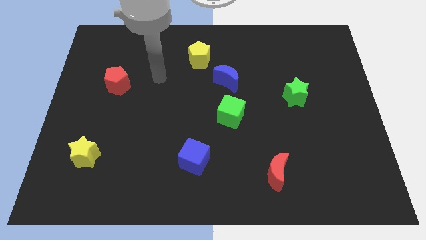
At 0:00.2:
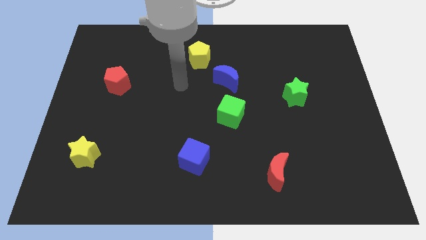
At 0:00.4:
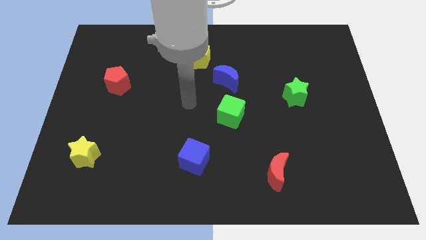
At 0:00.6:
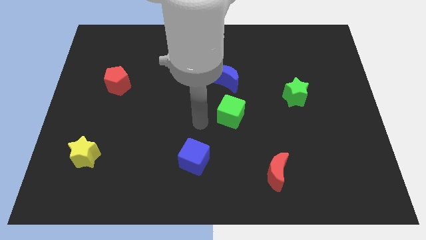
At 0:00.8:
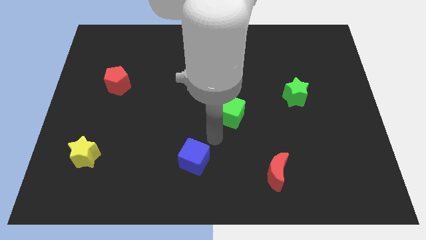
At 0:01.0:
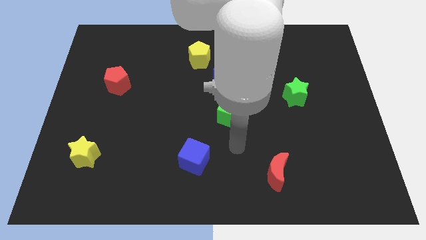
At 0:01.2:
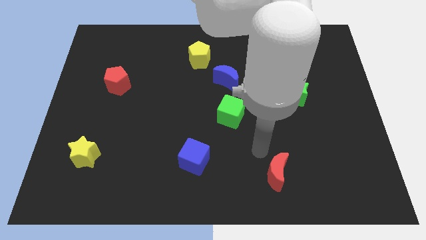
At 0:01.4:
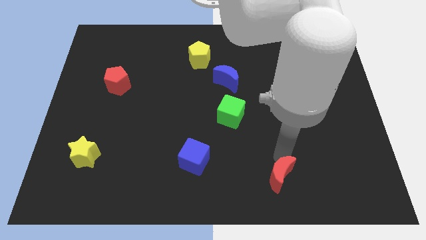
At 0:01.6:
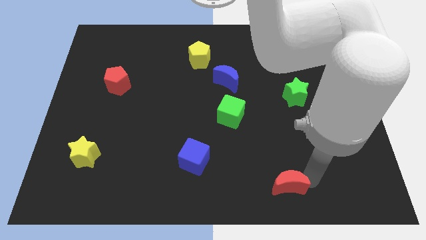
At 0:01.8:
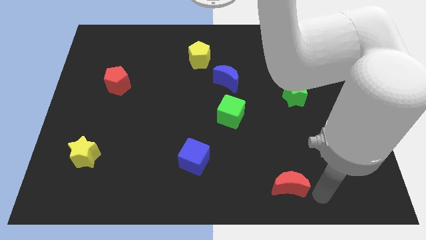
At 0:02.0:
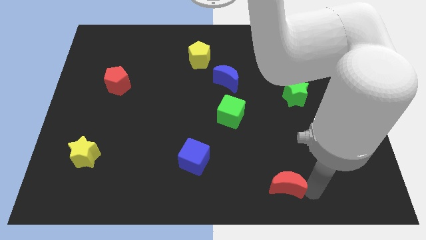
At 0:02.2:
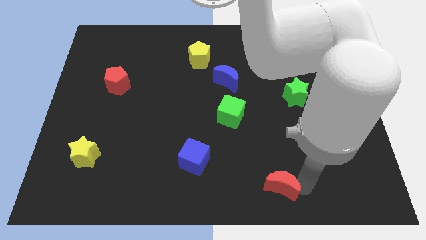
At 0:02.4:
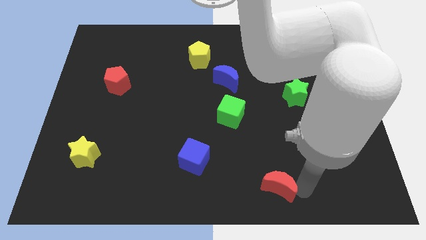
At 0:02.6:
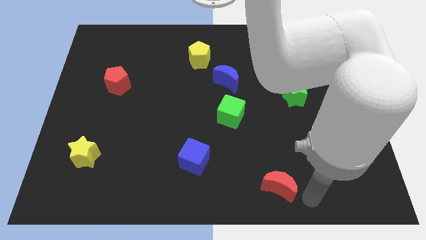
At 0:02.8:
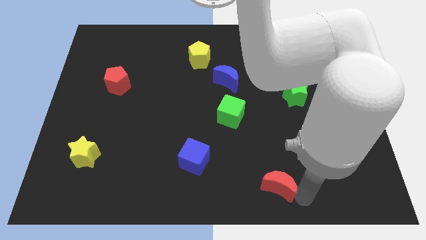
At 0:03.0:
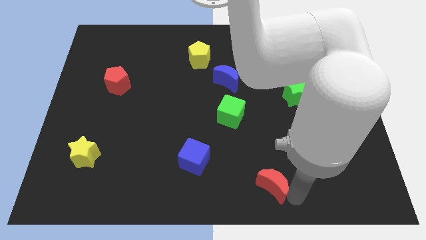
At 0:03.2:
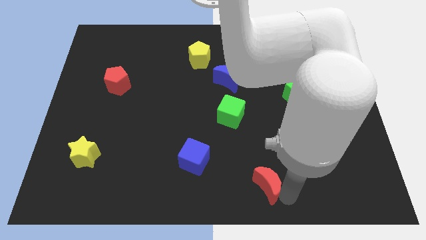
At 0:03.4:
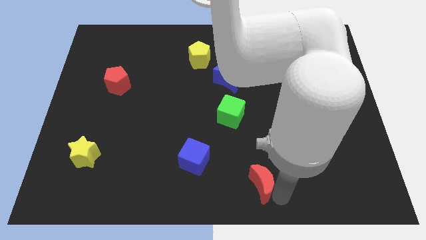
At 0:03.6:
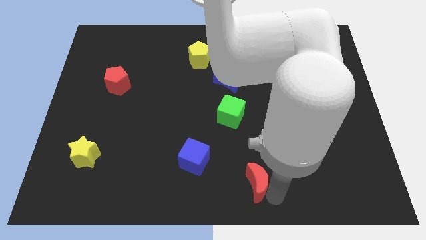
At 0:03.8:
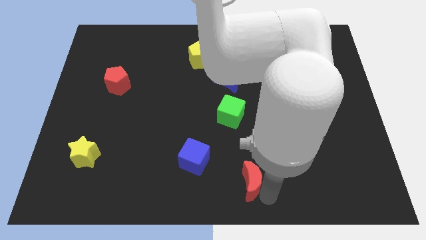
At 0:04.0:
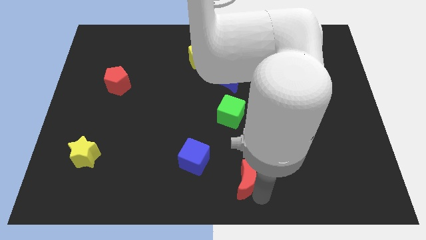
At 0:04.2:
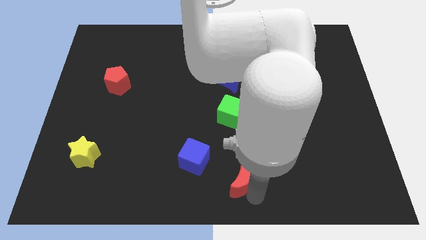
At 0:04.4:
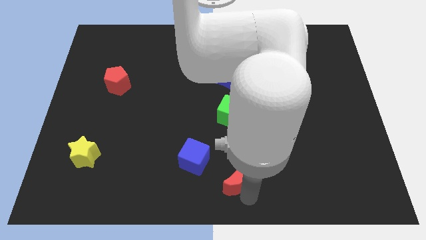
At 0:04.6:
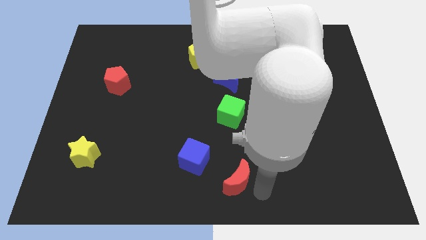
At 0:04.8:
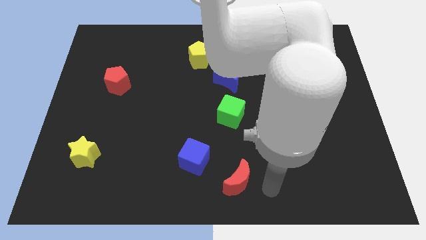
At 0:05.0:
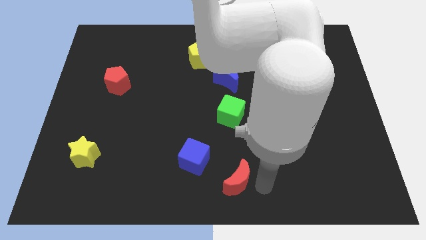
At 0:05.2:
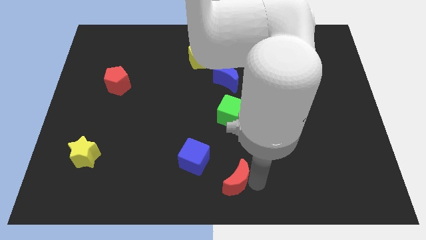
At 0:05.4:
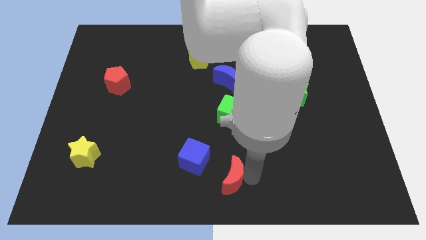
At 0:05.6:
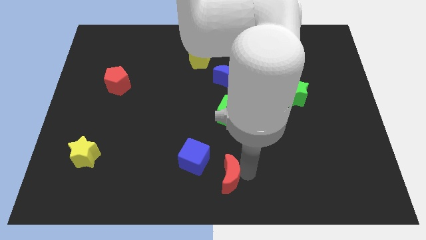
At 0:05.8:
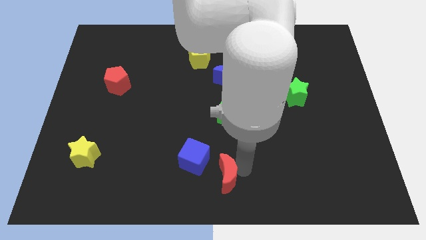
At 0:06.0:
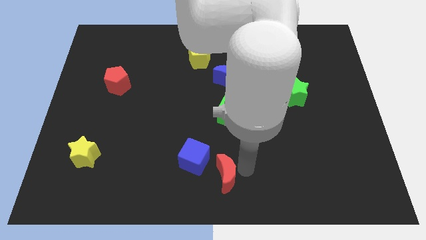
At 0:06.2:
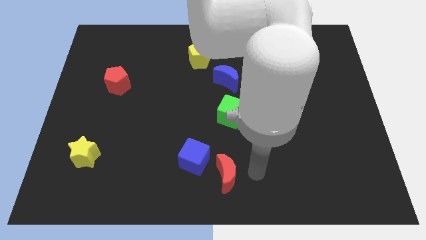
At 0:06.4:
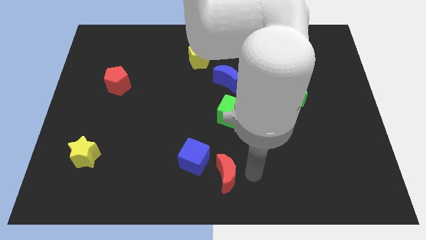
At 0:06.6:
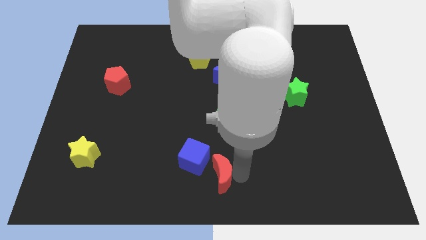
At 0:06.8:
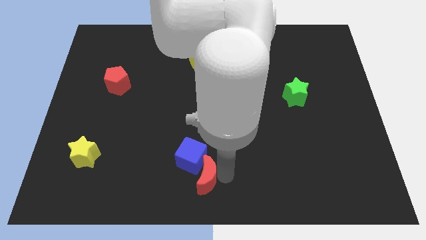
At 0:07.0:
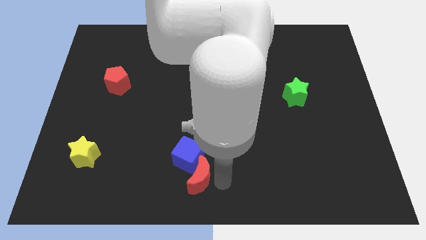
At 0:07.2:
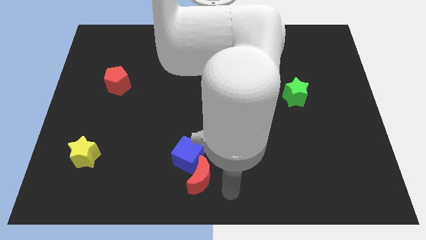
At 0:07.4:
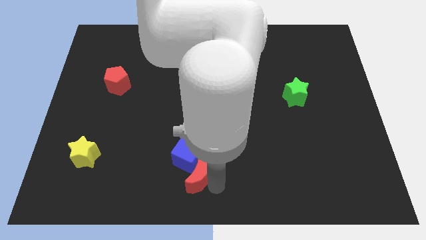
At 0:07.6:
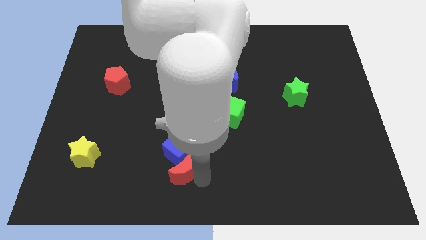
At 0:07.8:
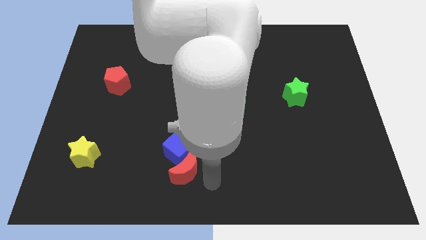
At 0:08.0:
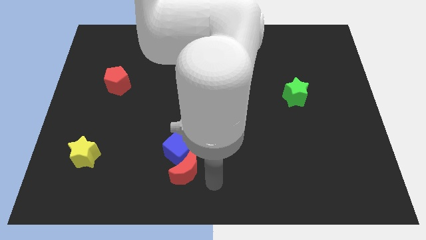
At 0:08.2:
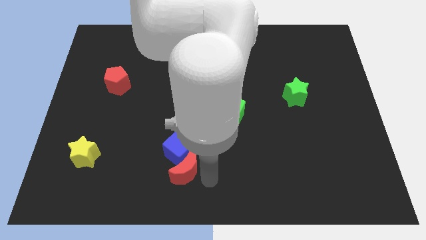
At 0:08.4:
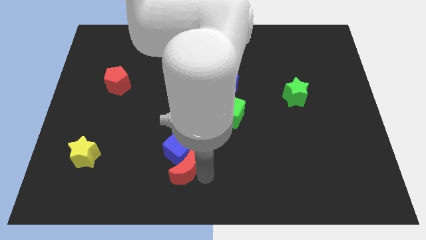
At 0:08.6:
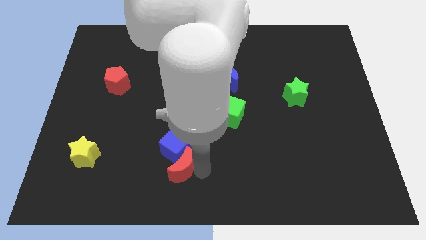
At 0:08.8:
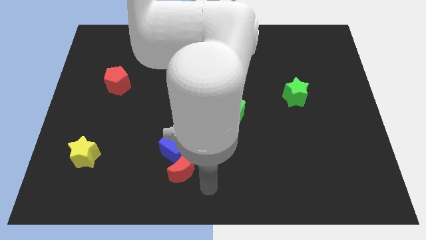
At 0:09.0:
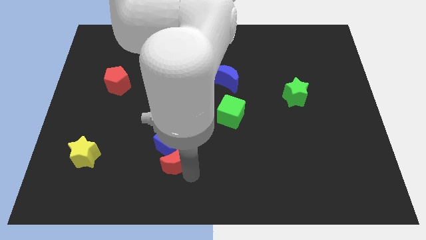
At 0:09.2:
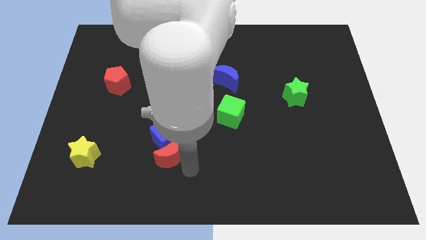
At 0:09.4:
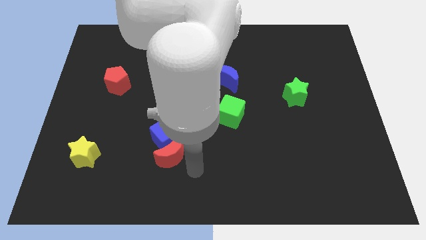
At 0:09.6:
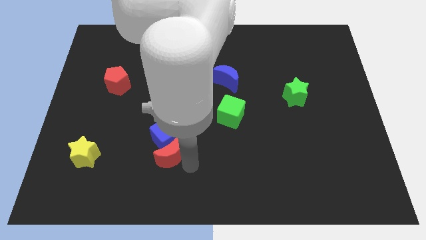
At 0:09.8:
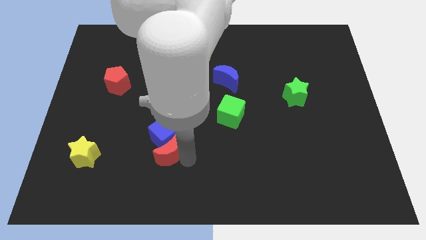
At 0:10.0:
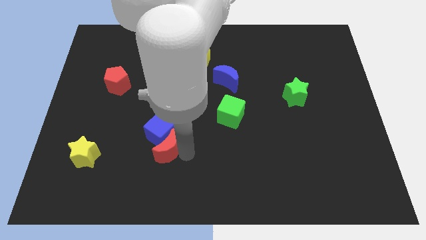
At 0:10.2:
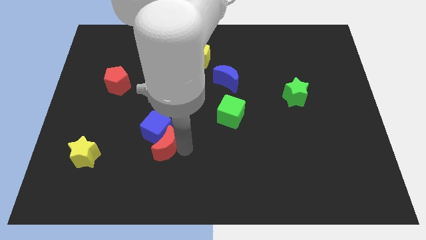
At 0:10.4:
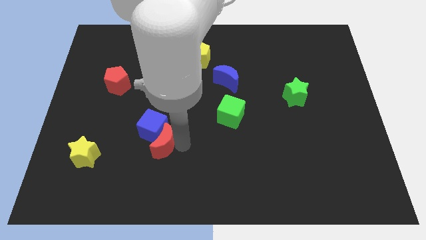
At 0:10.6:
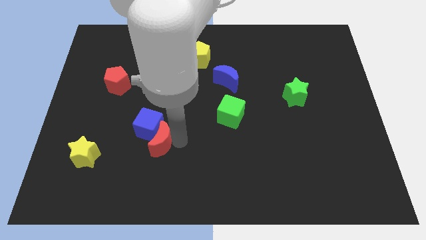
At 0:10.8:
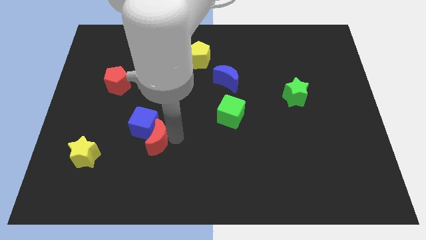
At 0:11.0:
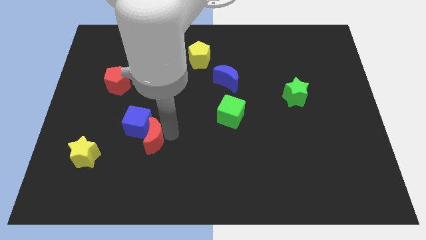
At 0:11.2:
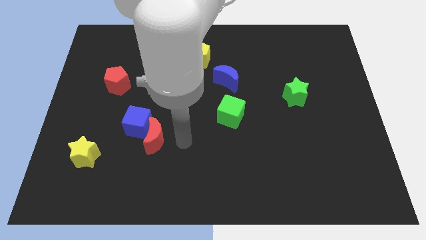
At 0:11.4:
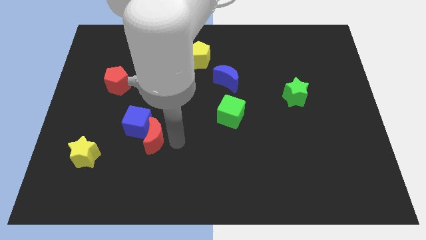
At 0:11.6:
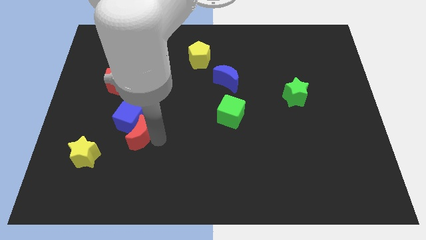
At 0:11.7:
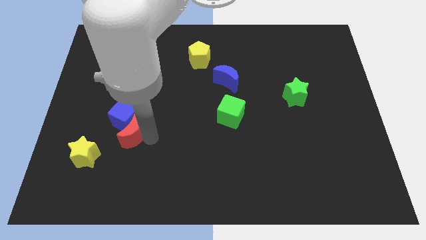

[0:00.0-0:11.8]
move the red moon to the top right of the yellow star

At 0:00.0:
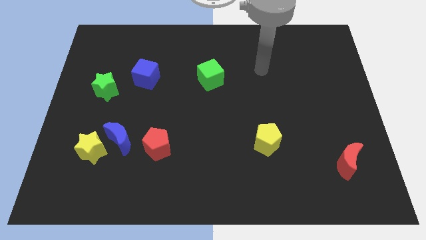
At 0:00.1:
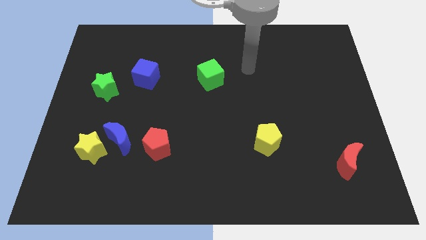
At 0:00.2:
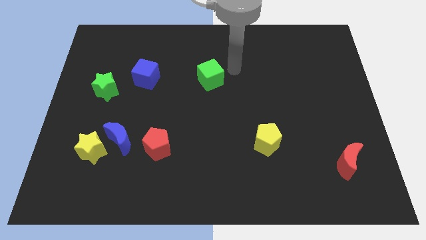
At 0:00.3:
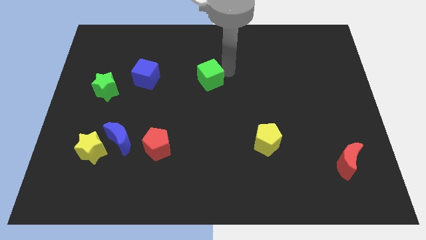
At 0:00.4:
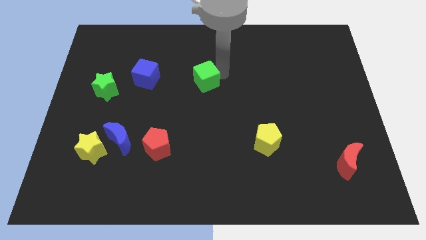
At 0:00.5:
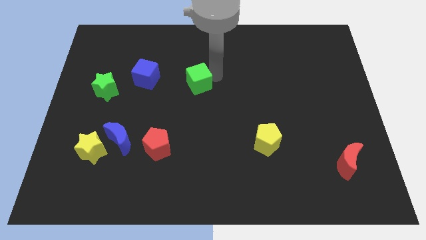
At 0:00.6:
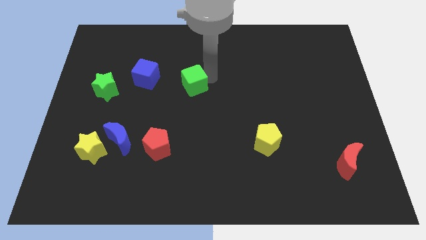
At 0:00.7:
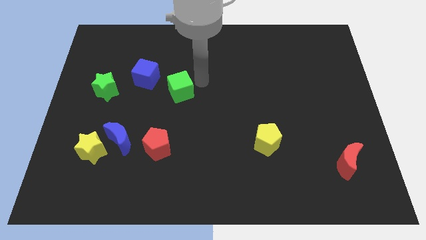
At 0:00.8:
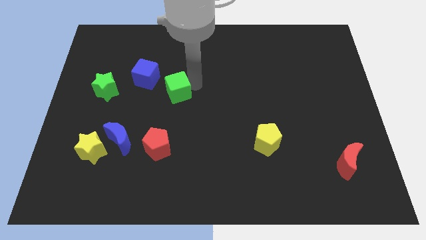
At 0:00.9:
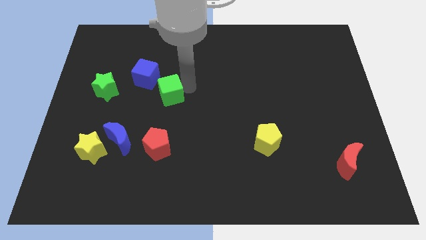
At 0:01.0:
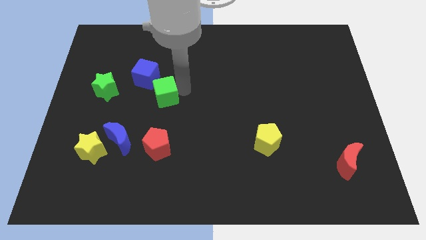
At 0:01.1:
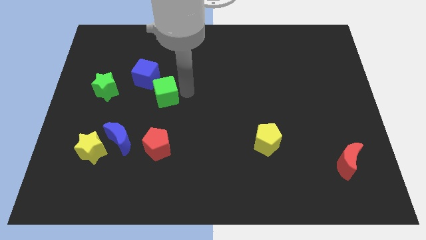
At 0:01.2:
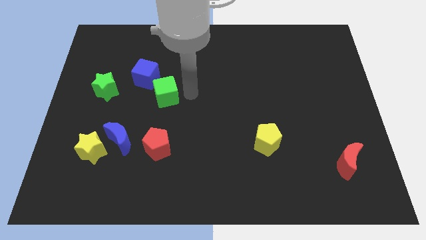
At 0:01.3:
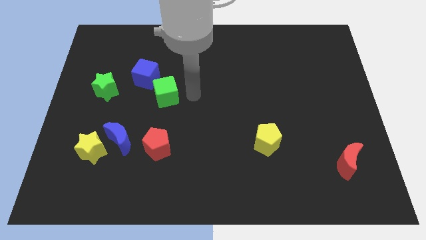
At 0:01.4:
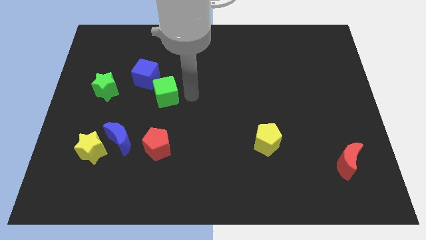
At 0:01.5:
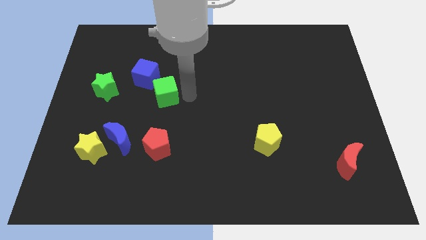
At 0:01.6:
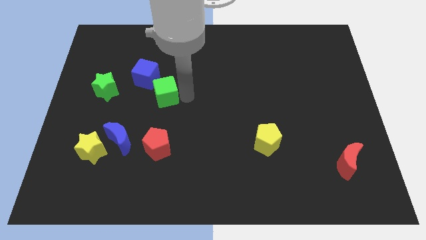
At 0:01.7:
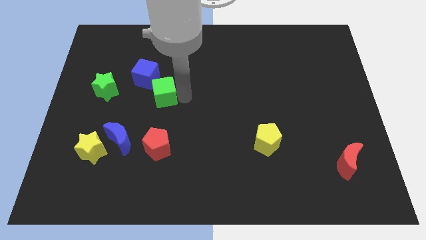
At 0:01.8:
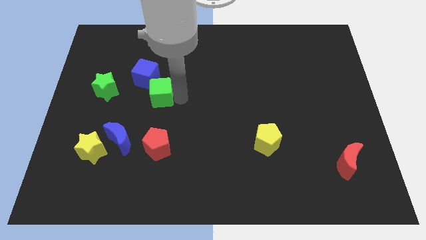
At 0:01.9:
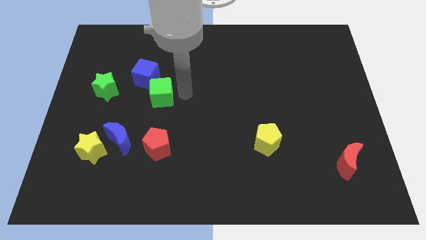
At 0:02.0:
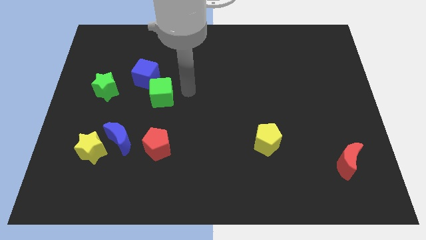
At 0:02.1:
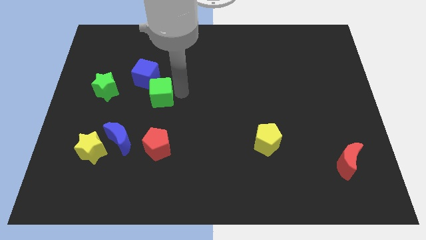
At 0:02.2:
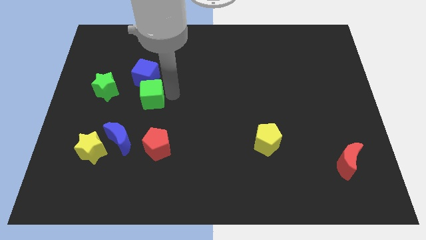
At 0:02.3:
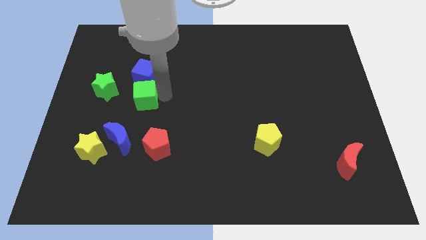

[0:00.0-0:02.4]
put the green cube to the top of the blue moon
